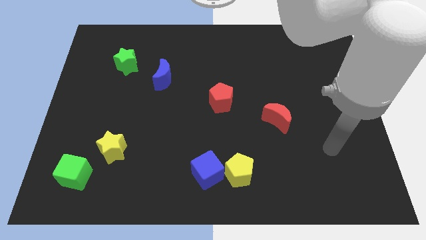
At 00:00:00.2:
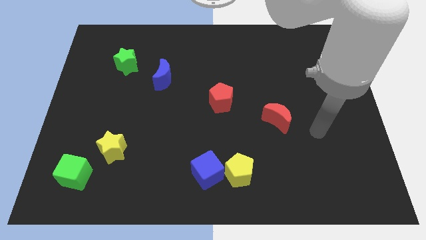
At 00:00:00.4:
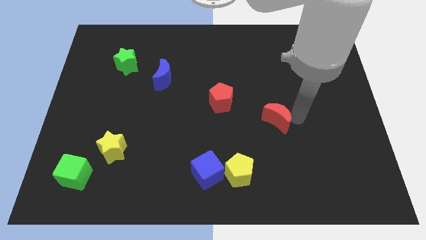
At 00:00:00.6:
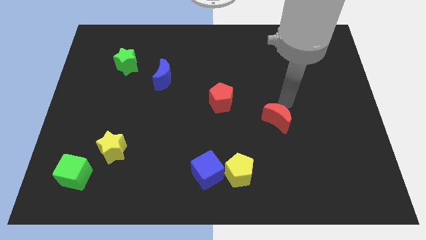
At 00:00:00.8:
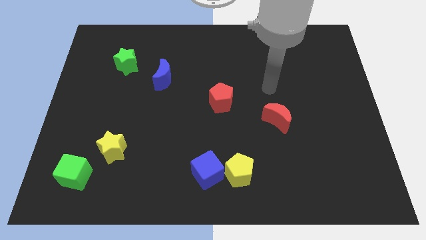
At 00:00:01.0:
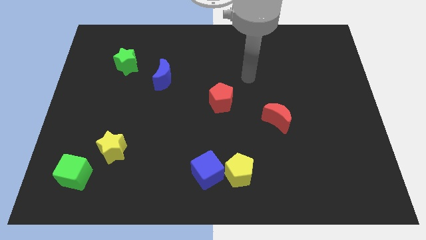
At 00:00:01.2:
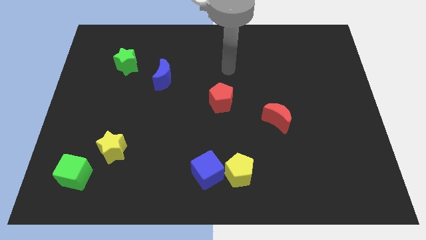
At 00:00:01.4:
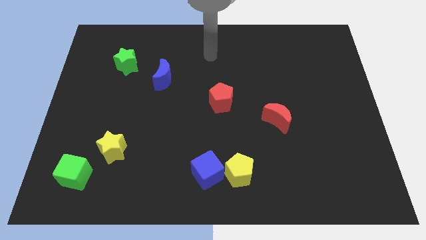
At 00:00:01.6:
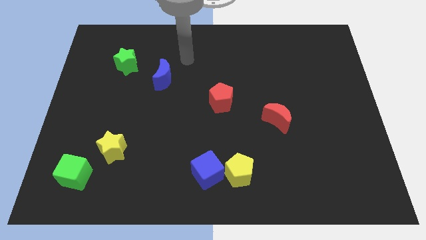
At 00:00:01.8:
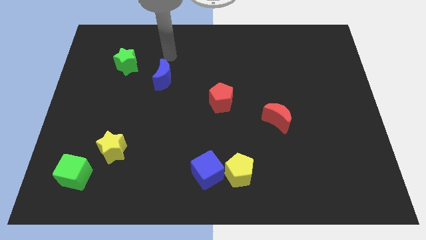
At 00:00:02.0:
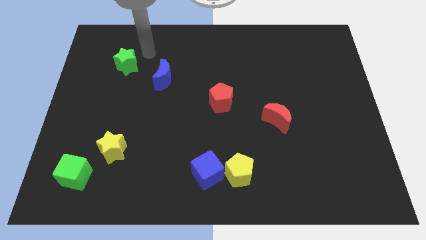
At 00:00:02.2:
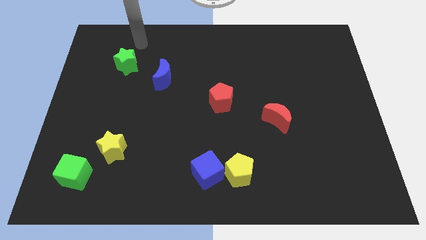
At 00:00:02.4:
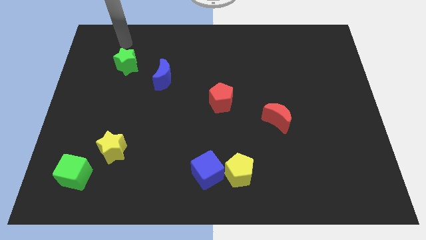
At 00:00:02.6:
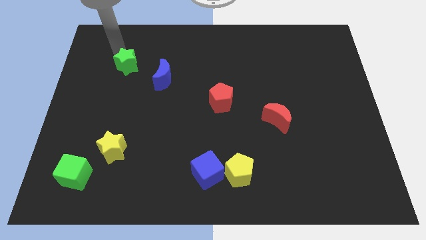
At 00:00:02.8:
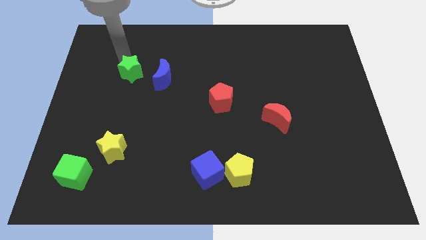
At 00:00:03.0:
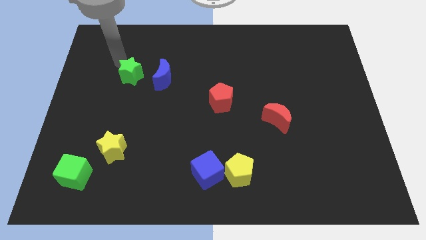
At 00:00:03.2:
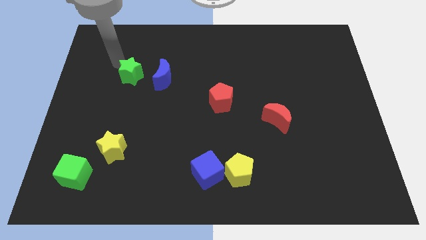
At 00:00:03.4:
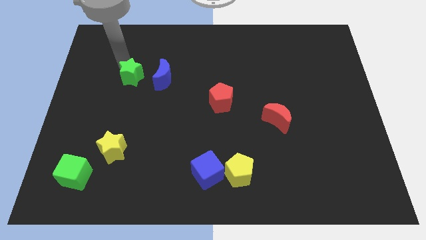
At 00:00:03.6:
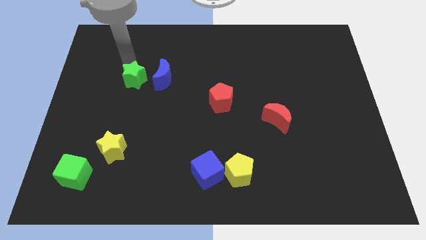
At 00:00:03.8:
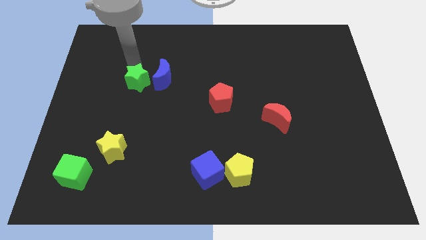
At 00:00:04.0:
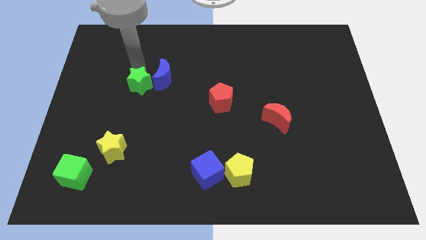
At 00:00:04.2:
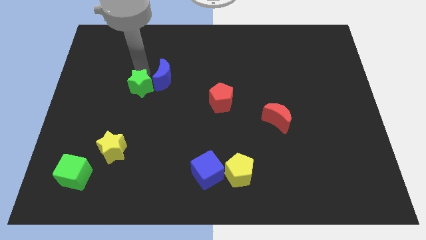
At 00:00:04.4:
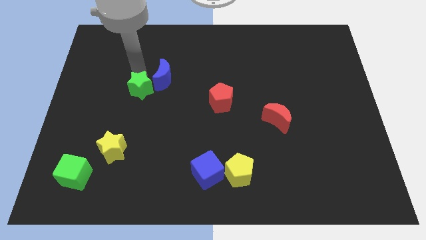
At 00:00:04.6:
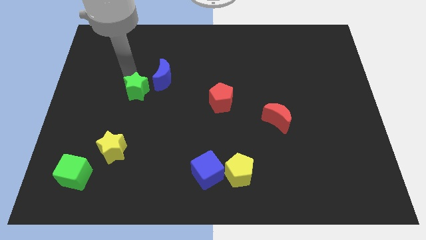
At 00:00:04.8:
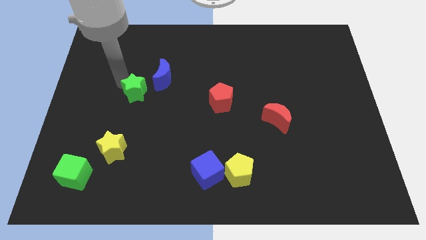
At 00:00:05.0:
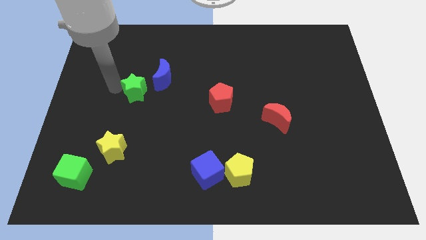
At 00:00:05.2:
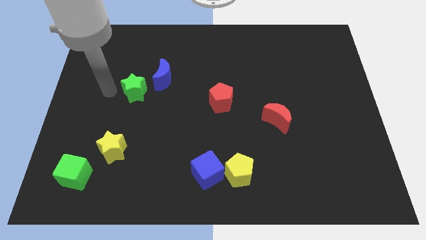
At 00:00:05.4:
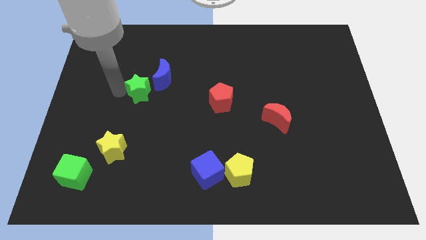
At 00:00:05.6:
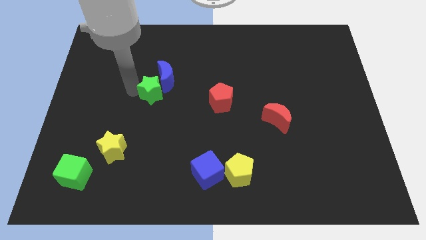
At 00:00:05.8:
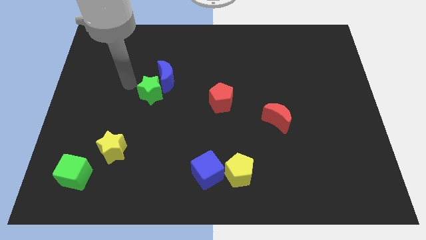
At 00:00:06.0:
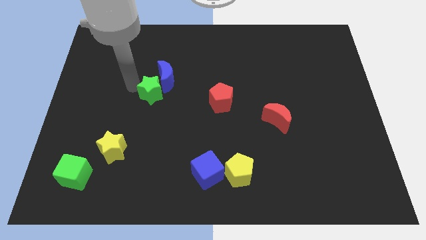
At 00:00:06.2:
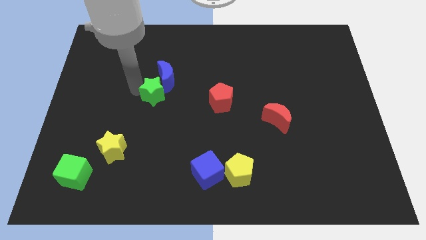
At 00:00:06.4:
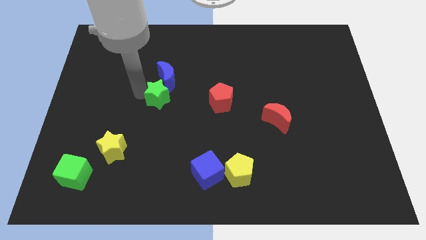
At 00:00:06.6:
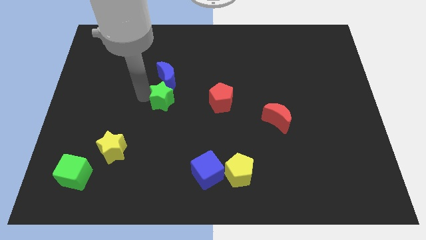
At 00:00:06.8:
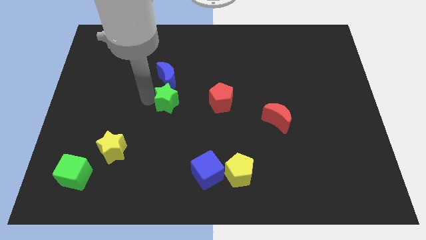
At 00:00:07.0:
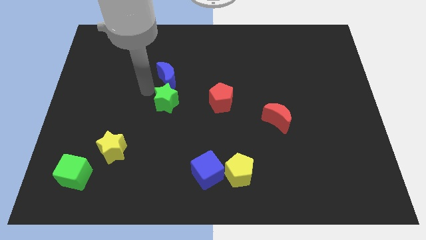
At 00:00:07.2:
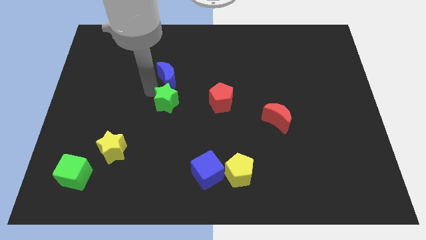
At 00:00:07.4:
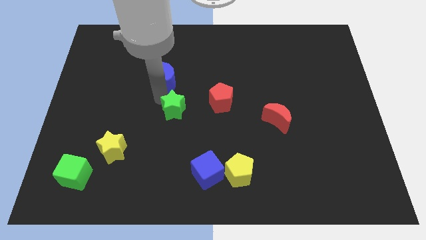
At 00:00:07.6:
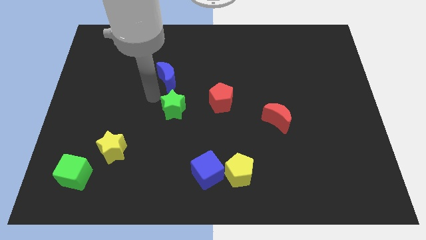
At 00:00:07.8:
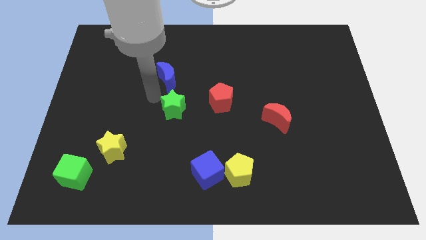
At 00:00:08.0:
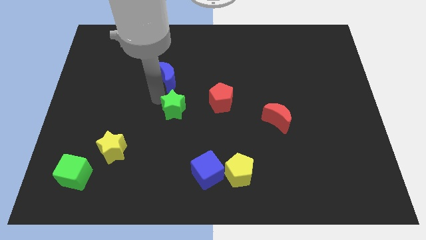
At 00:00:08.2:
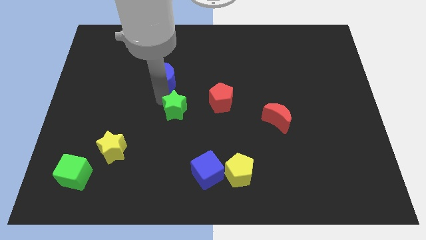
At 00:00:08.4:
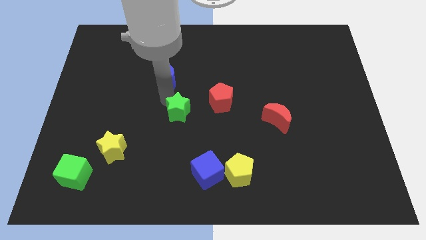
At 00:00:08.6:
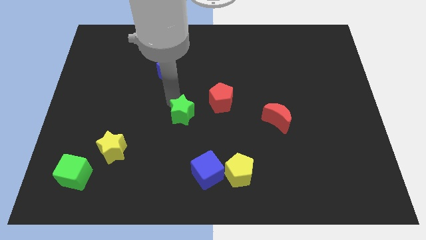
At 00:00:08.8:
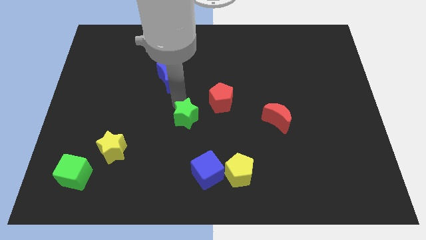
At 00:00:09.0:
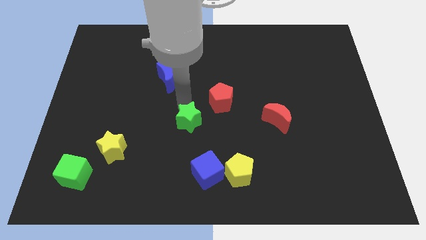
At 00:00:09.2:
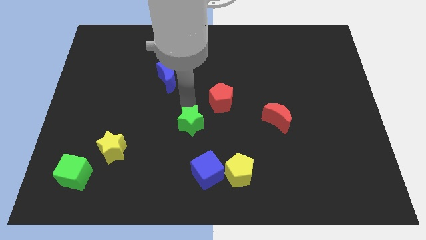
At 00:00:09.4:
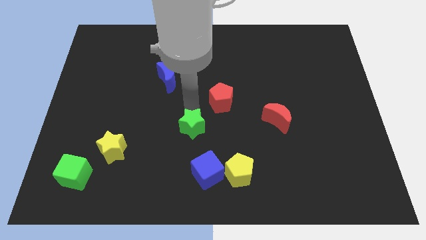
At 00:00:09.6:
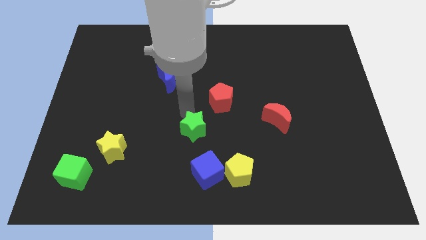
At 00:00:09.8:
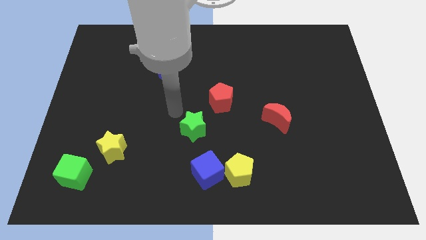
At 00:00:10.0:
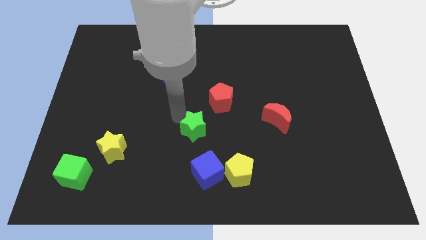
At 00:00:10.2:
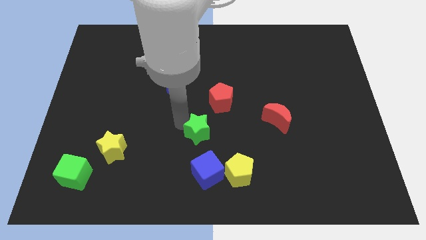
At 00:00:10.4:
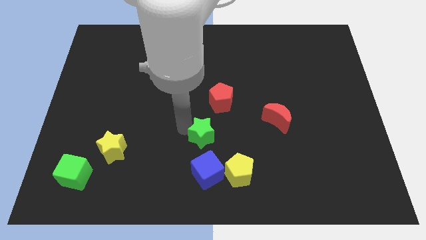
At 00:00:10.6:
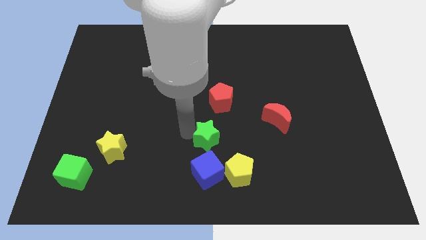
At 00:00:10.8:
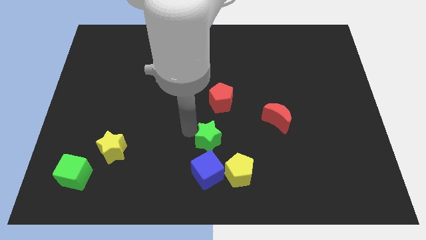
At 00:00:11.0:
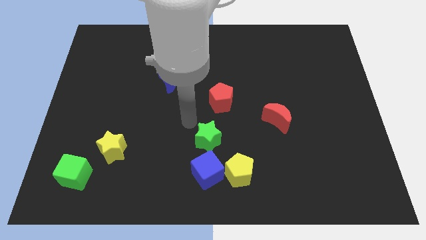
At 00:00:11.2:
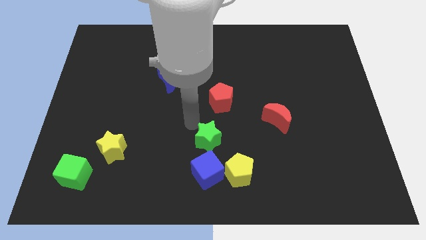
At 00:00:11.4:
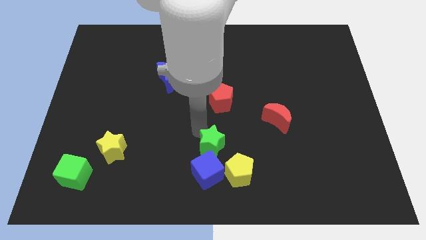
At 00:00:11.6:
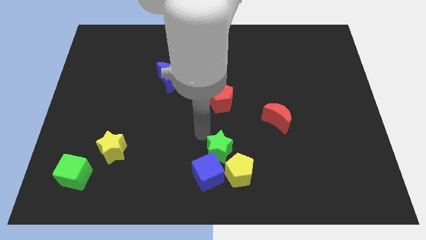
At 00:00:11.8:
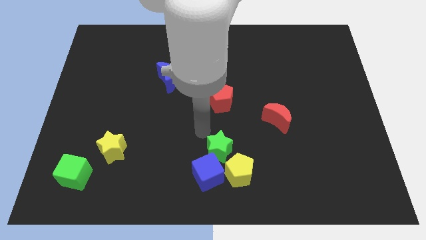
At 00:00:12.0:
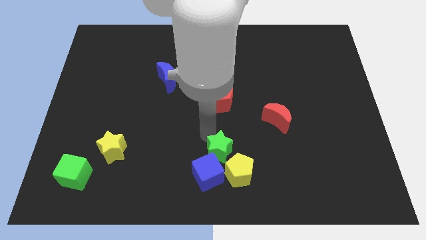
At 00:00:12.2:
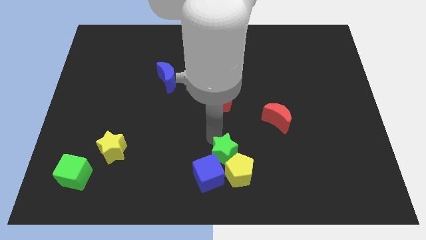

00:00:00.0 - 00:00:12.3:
slide the green star towards the yellow pentagon
